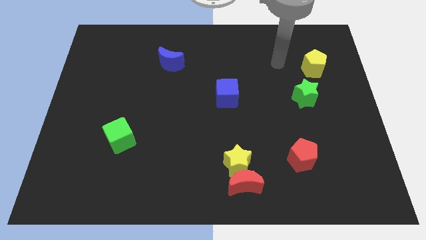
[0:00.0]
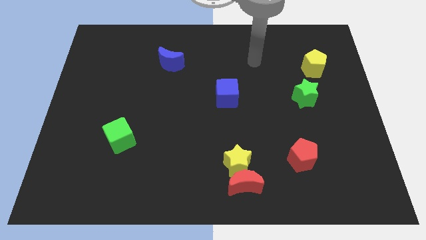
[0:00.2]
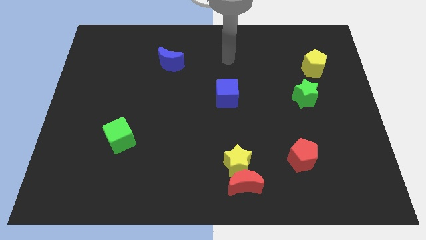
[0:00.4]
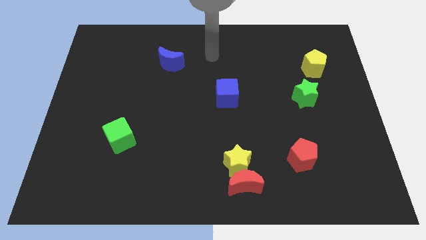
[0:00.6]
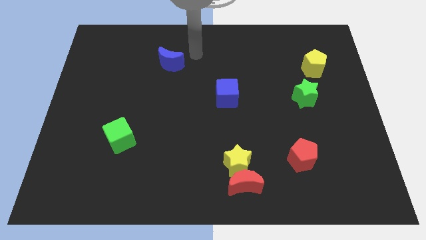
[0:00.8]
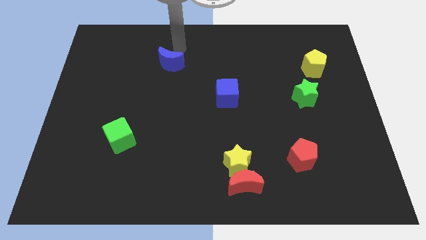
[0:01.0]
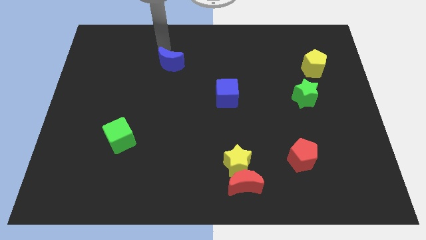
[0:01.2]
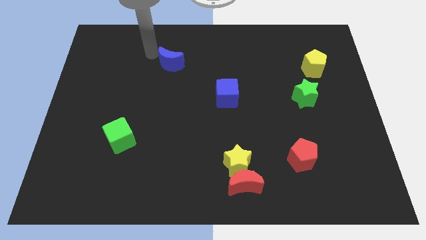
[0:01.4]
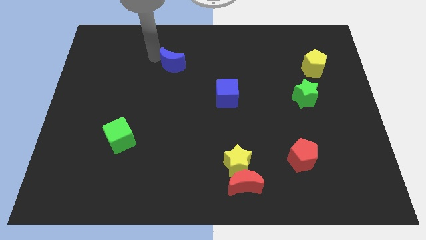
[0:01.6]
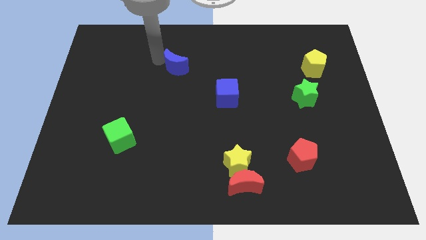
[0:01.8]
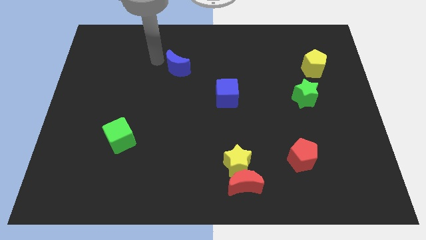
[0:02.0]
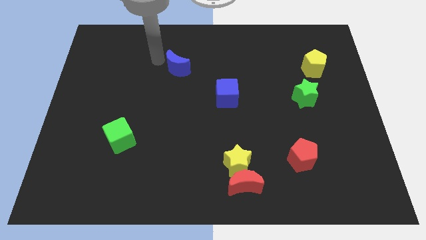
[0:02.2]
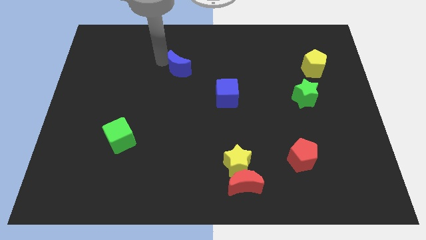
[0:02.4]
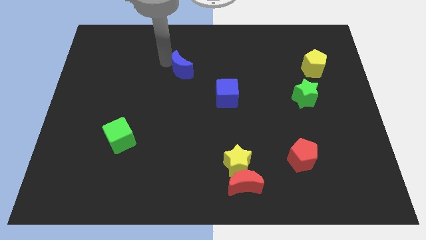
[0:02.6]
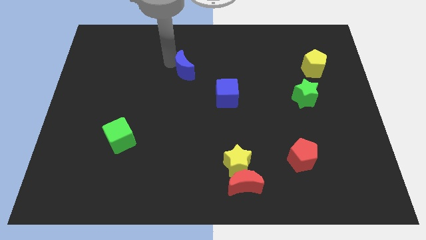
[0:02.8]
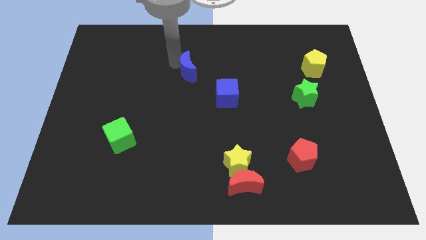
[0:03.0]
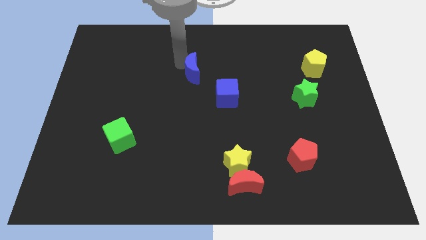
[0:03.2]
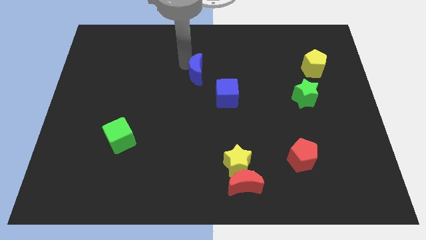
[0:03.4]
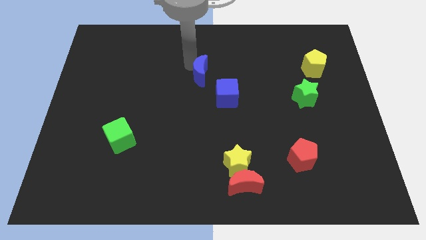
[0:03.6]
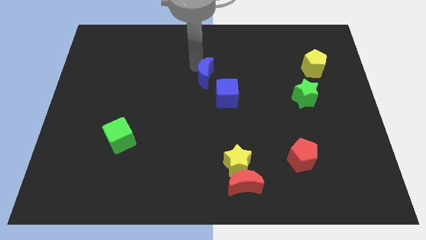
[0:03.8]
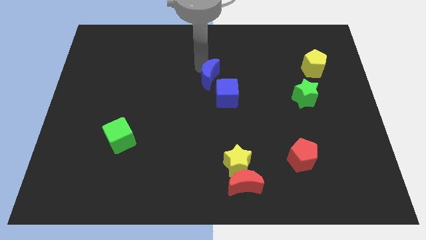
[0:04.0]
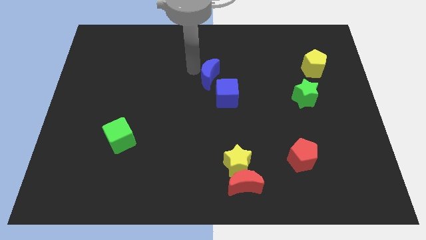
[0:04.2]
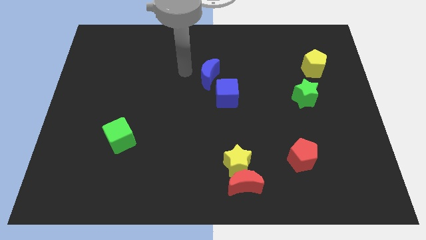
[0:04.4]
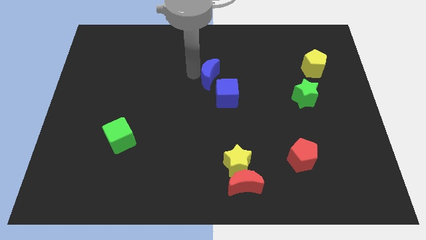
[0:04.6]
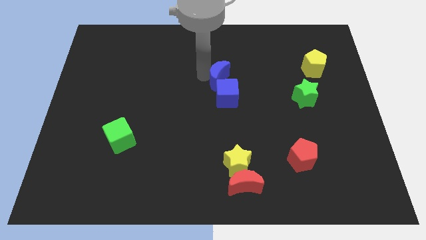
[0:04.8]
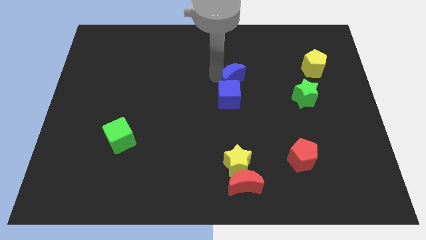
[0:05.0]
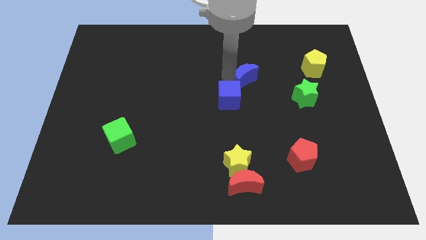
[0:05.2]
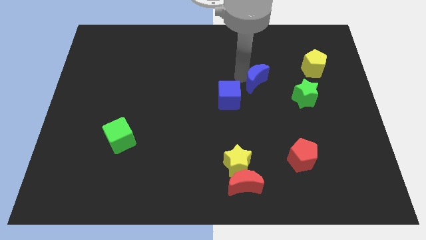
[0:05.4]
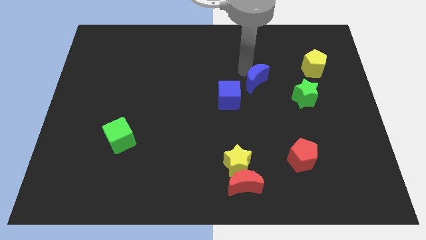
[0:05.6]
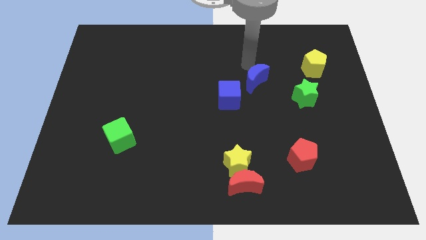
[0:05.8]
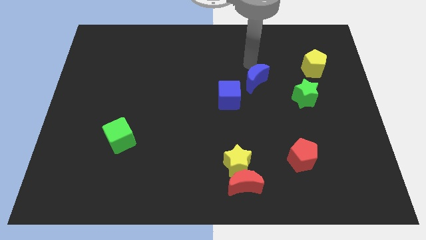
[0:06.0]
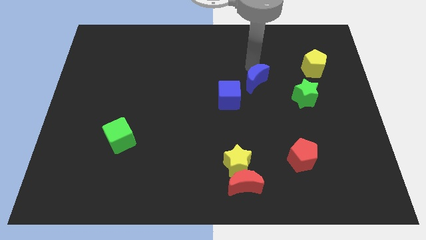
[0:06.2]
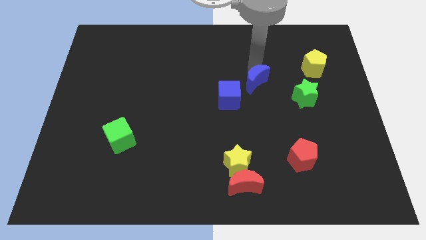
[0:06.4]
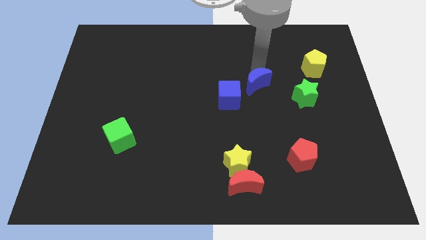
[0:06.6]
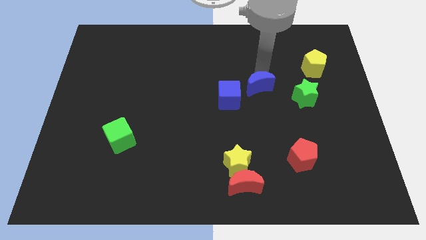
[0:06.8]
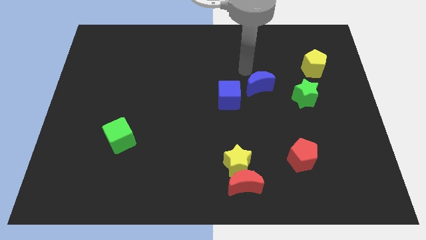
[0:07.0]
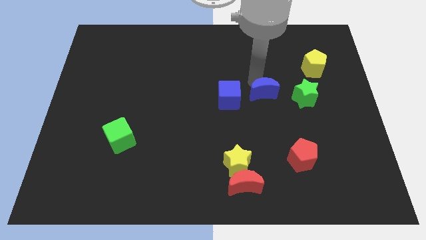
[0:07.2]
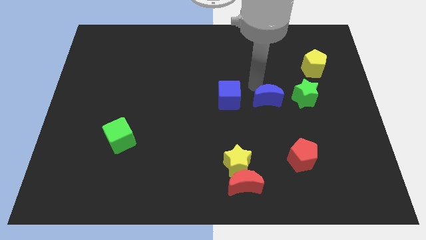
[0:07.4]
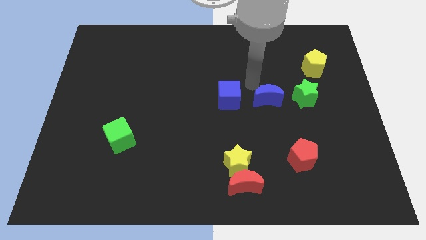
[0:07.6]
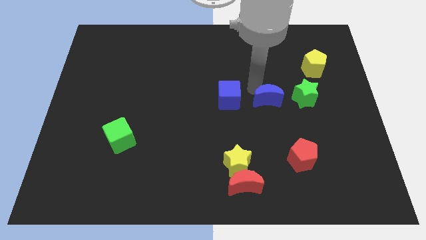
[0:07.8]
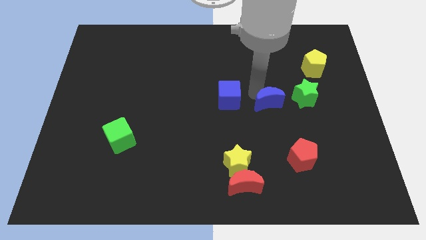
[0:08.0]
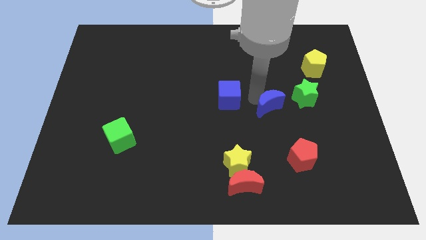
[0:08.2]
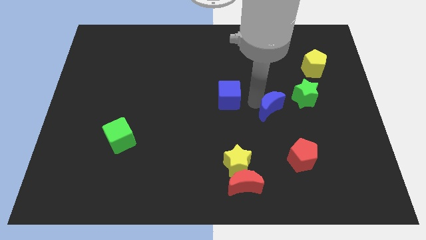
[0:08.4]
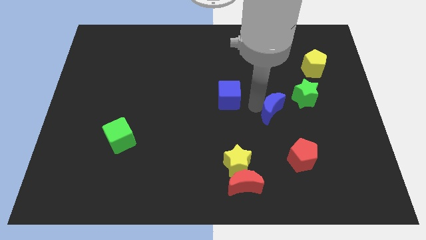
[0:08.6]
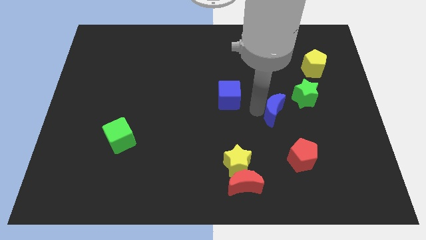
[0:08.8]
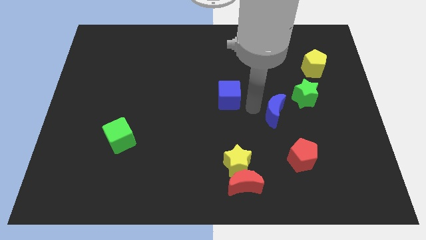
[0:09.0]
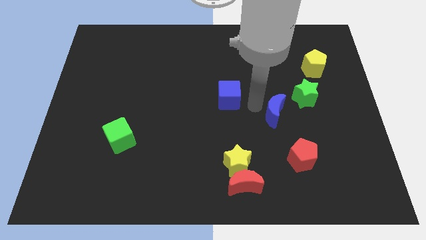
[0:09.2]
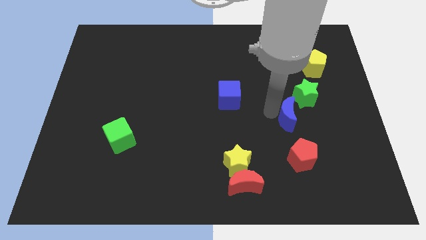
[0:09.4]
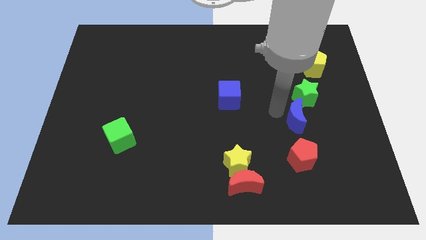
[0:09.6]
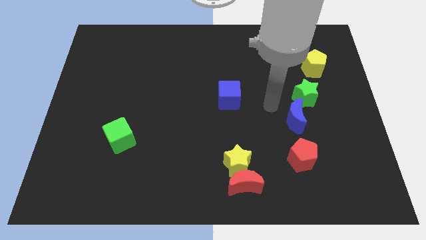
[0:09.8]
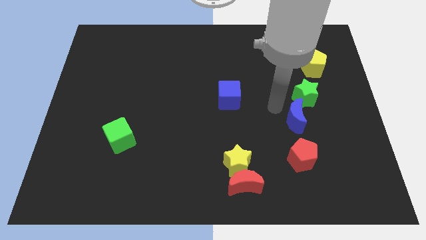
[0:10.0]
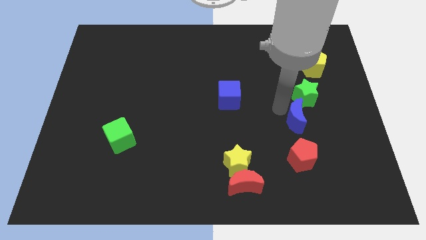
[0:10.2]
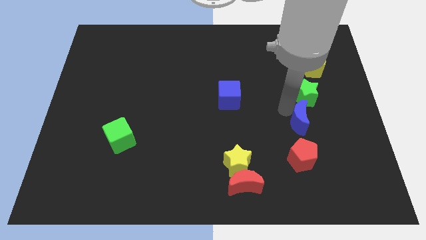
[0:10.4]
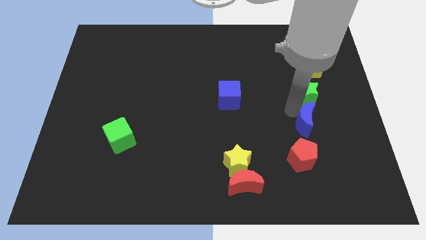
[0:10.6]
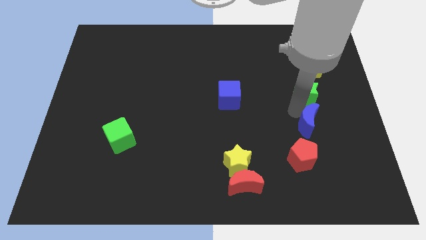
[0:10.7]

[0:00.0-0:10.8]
move the blue moon diagonally up and to the right of the red pentagon
